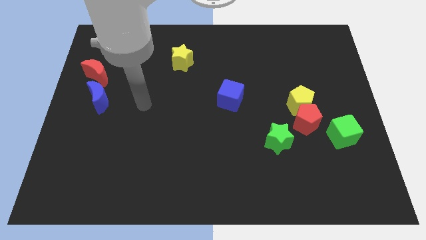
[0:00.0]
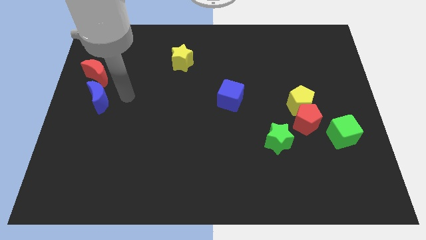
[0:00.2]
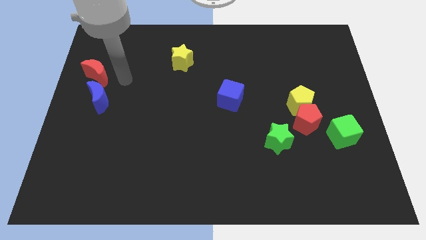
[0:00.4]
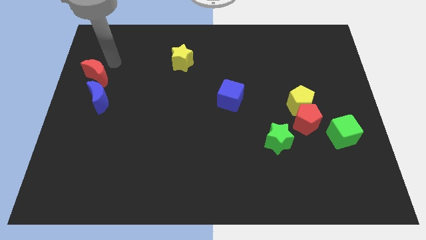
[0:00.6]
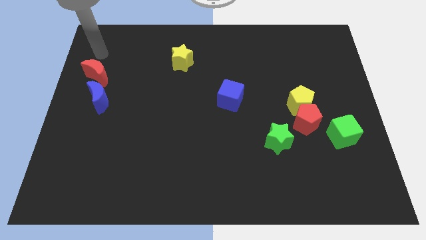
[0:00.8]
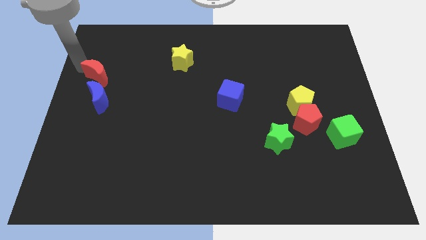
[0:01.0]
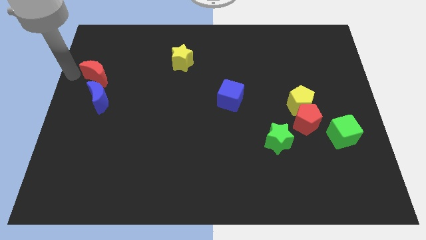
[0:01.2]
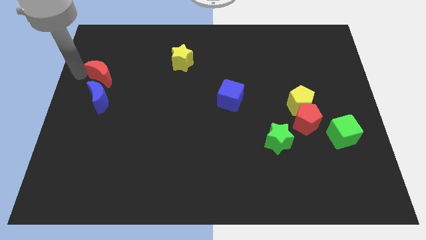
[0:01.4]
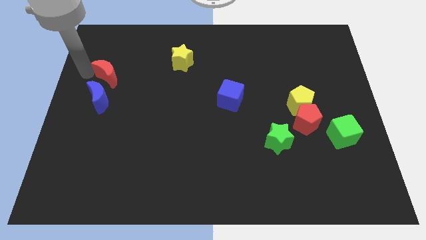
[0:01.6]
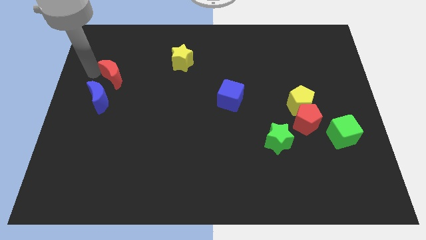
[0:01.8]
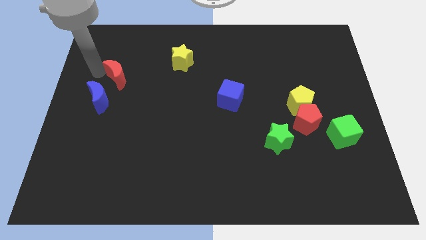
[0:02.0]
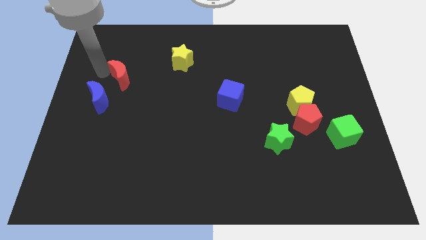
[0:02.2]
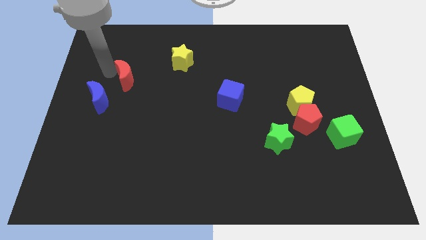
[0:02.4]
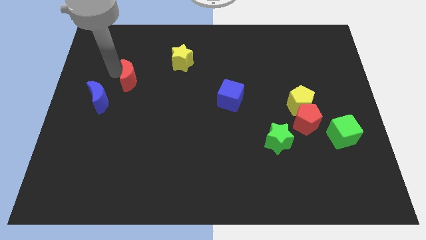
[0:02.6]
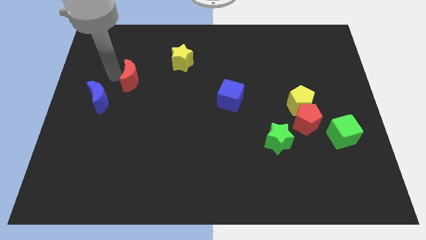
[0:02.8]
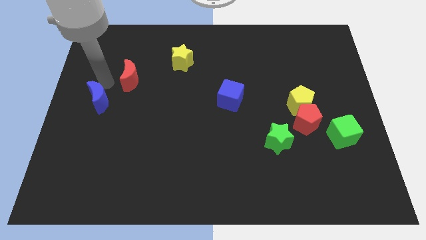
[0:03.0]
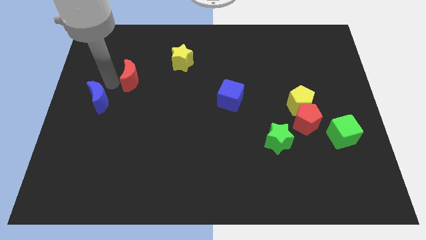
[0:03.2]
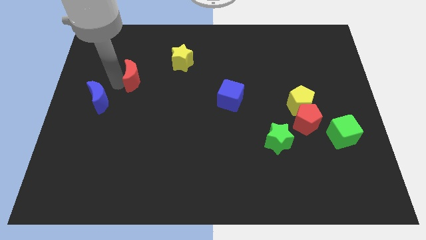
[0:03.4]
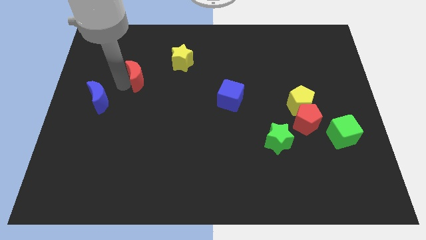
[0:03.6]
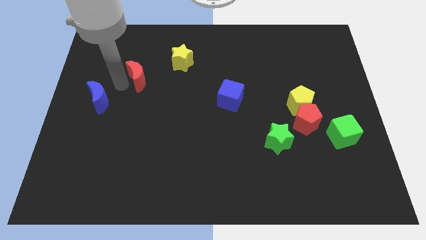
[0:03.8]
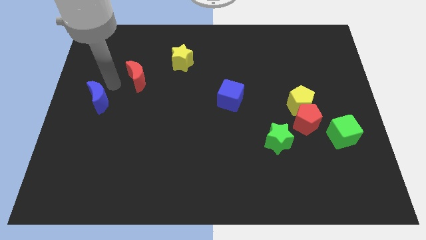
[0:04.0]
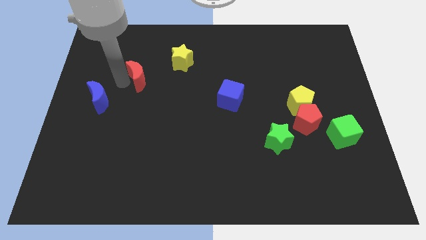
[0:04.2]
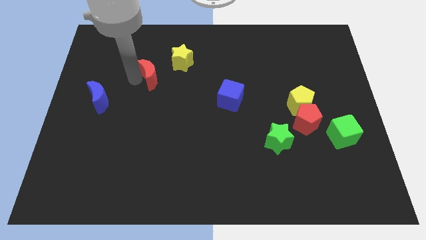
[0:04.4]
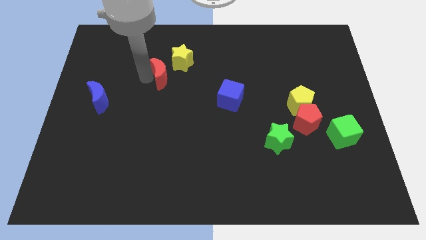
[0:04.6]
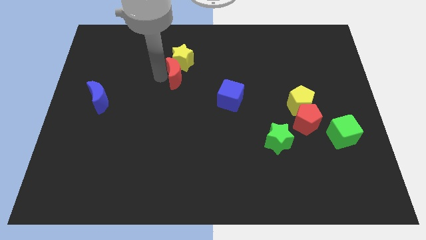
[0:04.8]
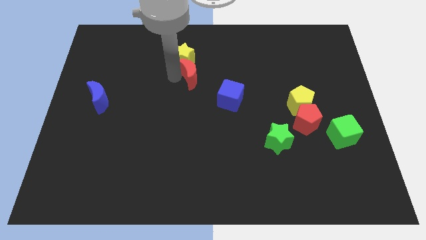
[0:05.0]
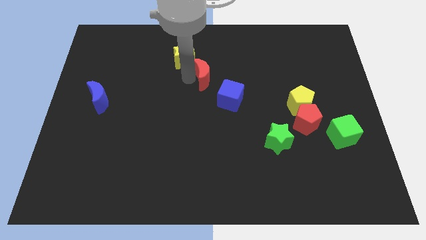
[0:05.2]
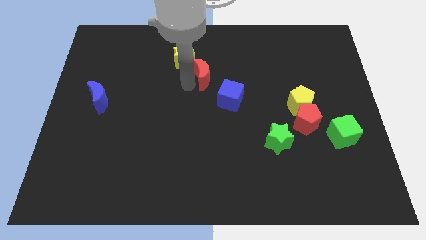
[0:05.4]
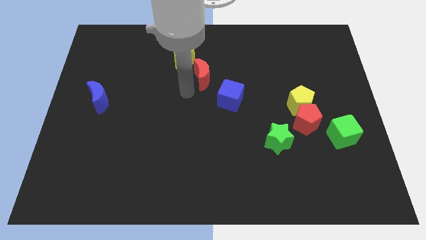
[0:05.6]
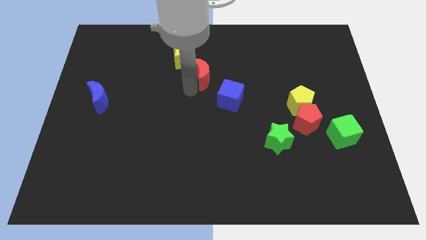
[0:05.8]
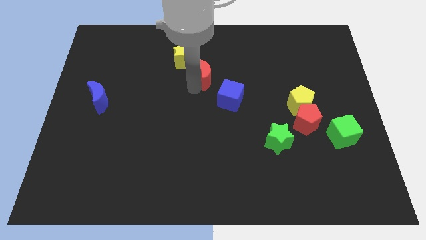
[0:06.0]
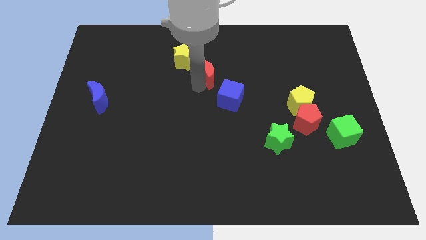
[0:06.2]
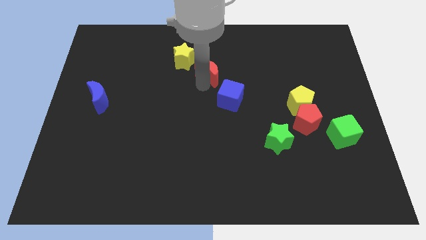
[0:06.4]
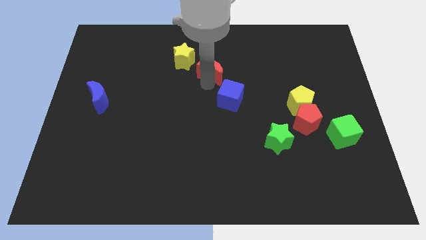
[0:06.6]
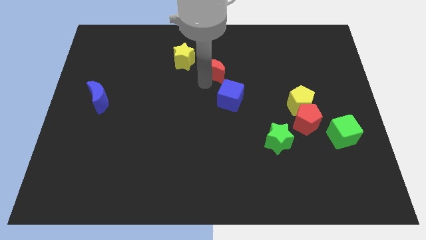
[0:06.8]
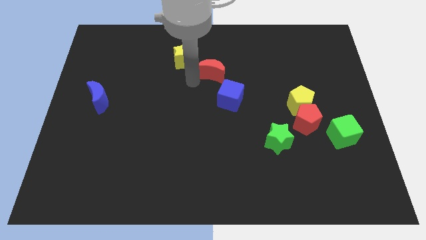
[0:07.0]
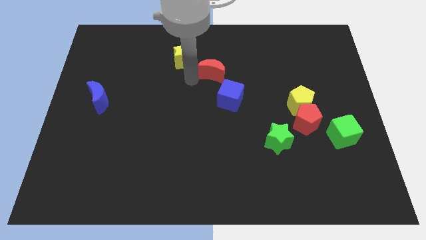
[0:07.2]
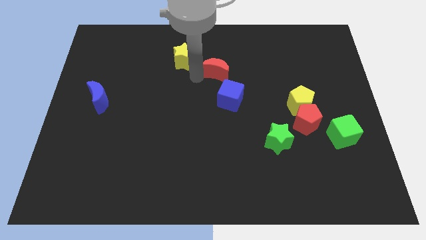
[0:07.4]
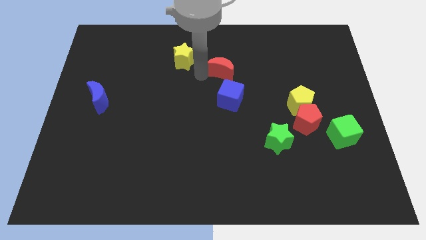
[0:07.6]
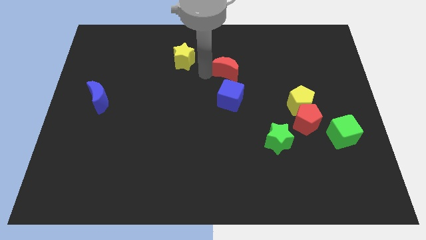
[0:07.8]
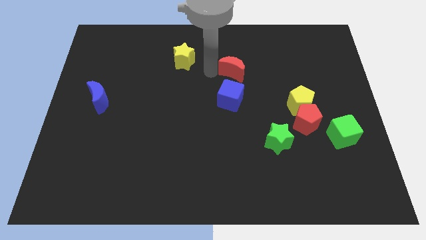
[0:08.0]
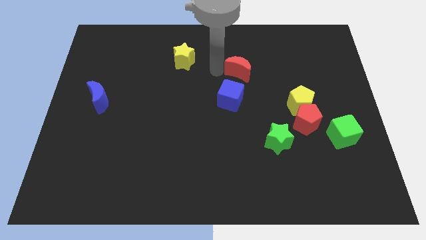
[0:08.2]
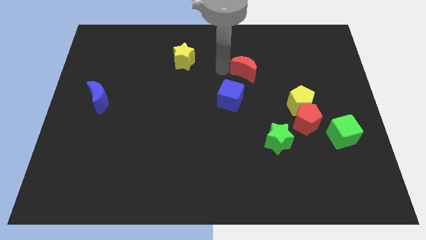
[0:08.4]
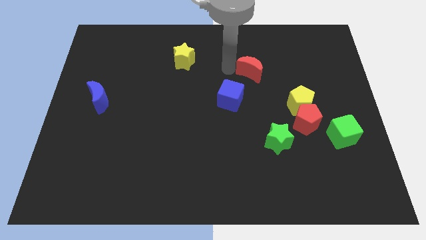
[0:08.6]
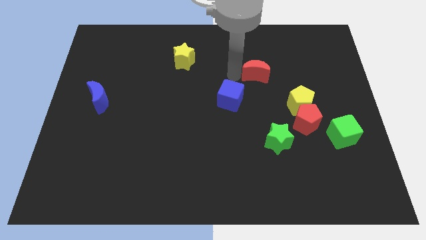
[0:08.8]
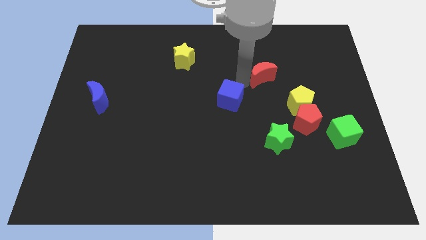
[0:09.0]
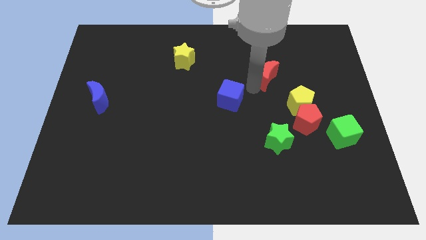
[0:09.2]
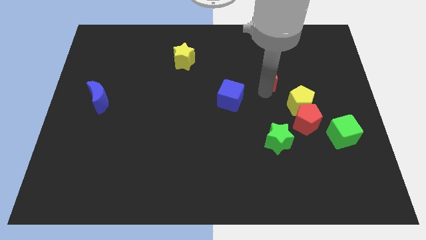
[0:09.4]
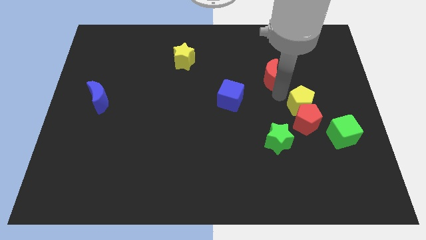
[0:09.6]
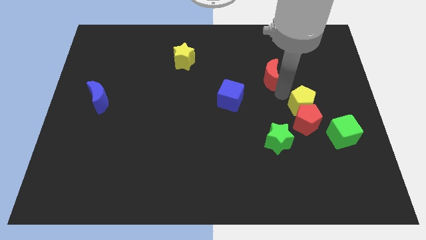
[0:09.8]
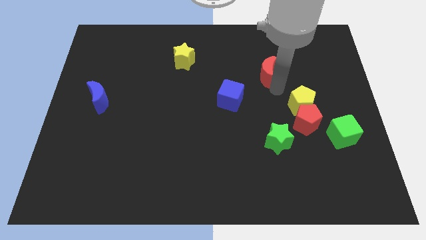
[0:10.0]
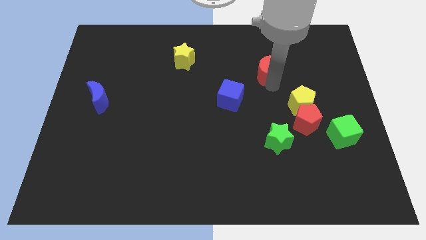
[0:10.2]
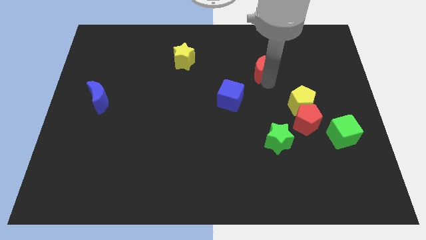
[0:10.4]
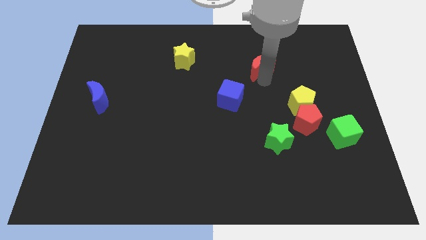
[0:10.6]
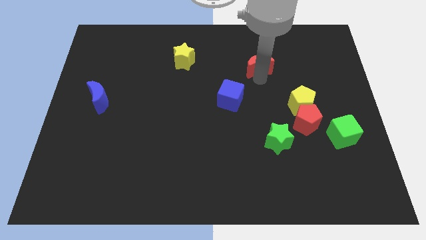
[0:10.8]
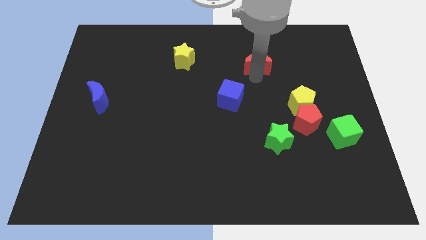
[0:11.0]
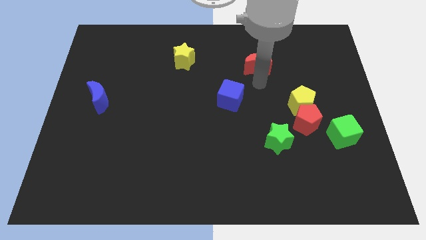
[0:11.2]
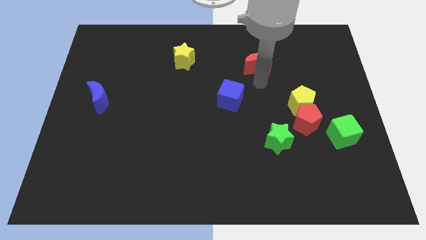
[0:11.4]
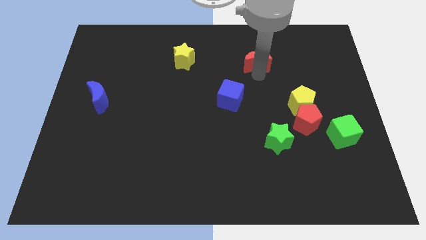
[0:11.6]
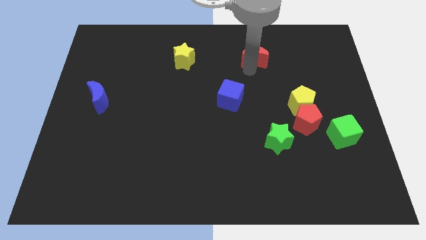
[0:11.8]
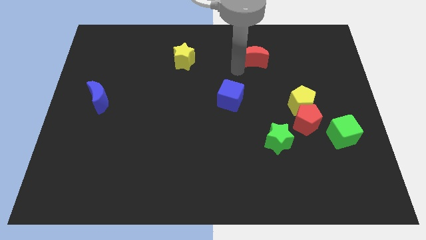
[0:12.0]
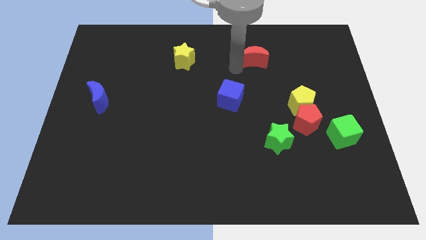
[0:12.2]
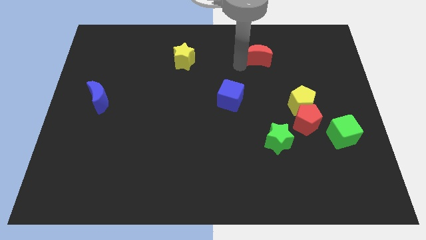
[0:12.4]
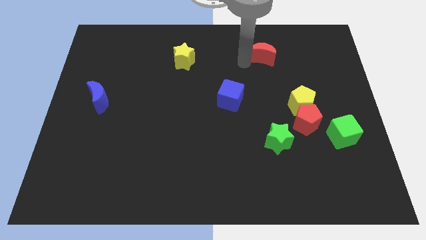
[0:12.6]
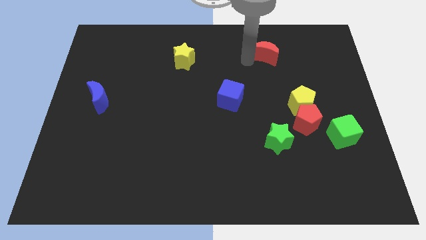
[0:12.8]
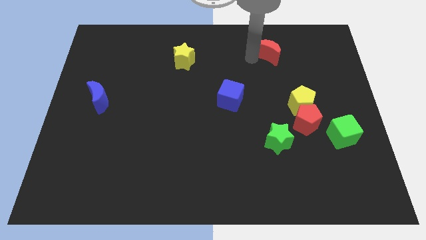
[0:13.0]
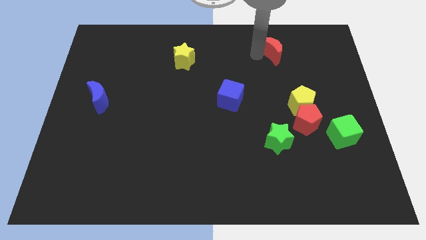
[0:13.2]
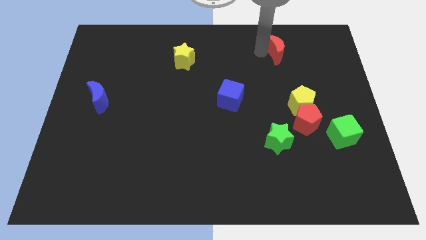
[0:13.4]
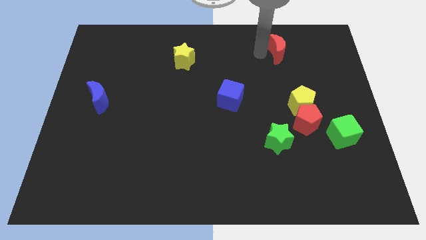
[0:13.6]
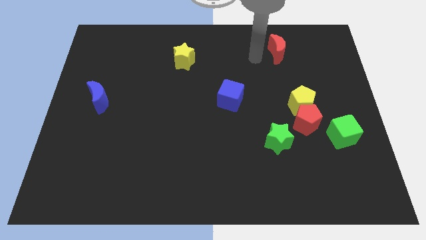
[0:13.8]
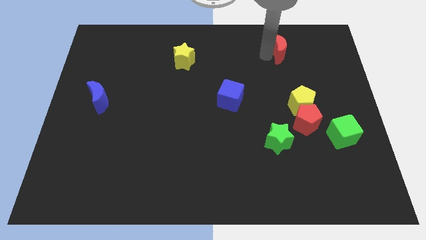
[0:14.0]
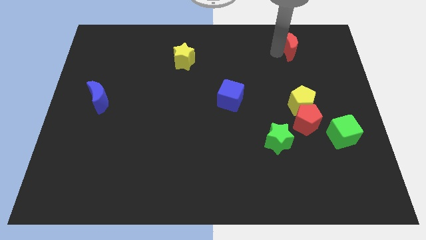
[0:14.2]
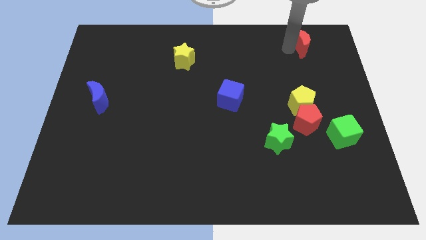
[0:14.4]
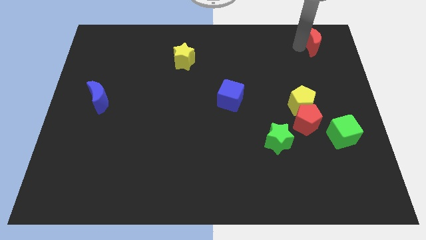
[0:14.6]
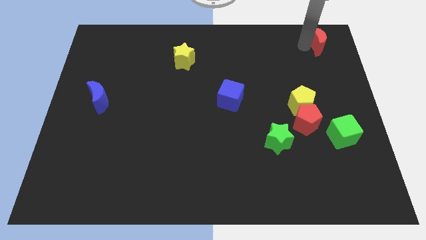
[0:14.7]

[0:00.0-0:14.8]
move the red moon to the upper right corner

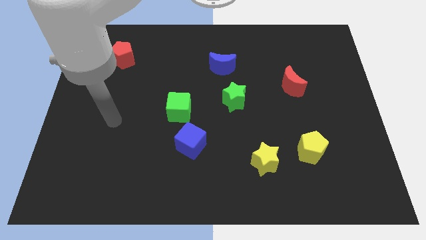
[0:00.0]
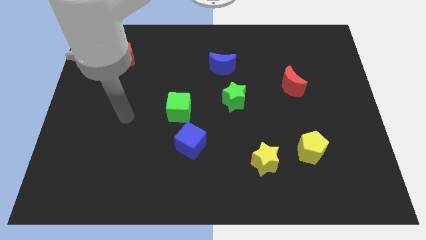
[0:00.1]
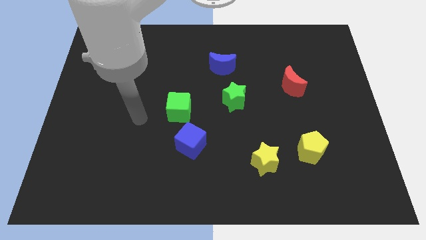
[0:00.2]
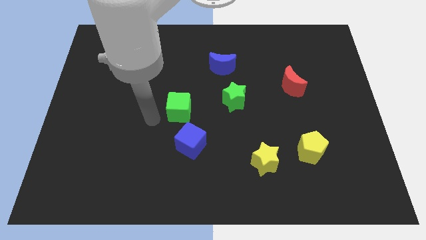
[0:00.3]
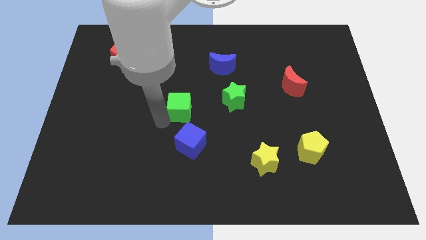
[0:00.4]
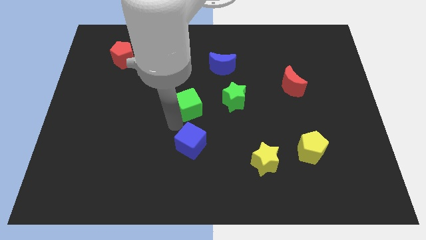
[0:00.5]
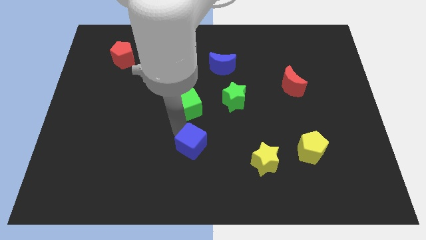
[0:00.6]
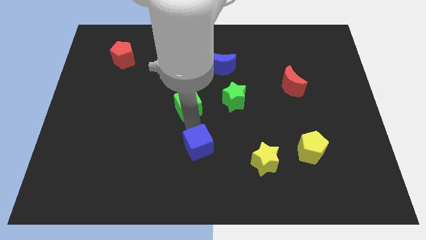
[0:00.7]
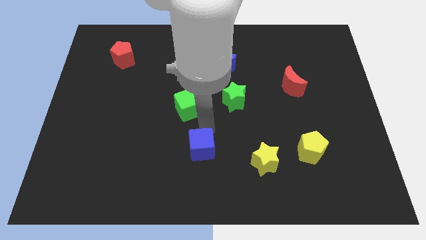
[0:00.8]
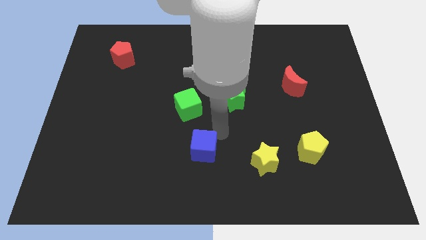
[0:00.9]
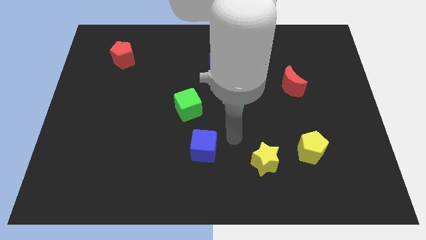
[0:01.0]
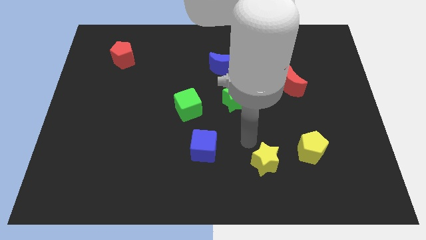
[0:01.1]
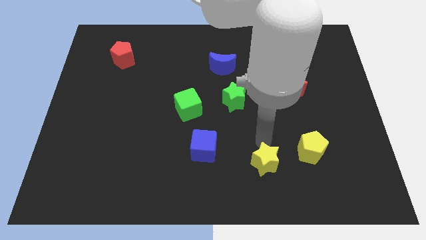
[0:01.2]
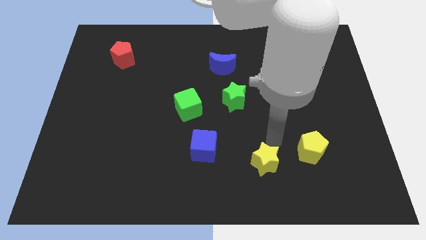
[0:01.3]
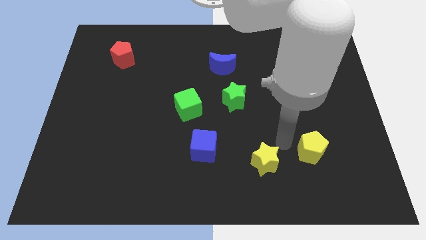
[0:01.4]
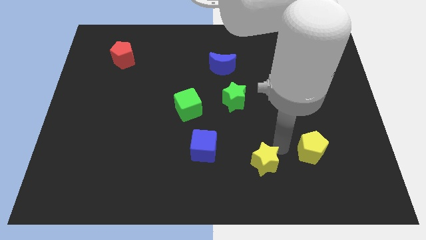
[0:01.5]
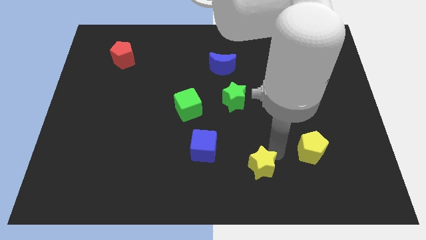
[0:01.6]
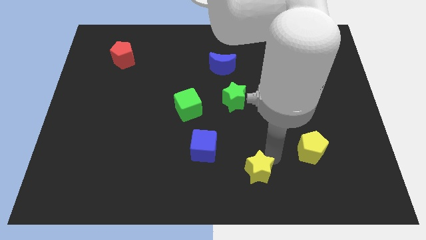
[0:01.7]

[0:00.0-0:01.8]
slide the yellow star to the bottom
